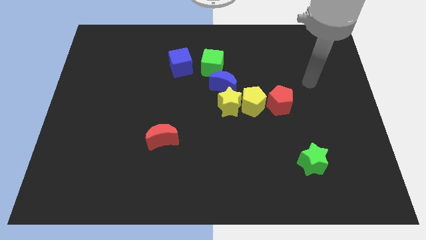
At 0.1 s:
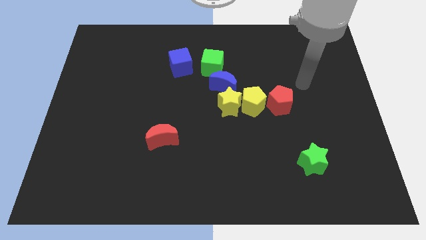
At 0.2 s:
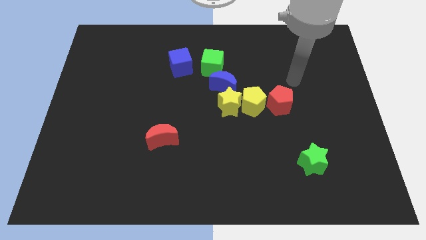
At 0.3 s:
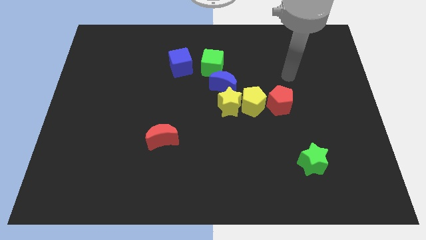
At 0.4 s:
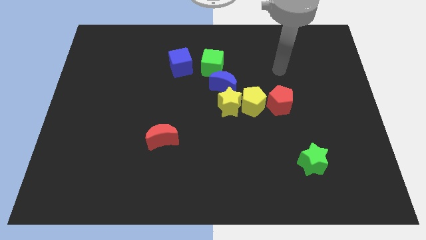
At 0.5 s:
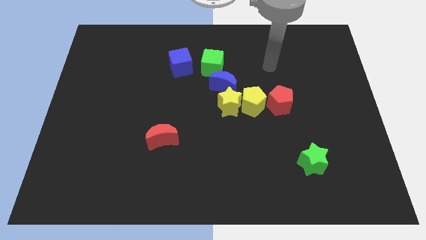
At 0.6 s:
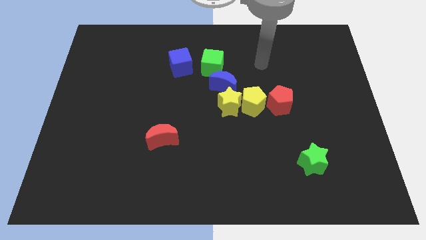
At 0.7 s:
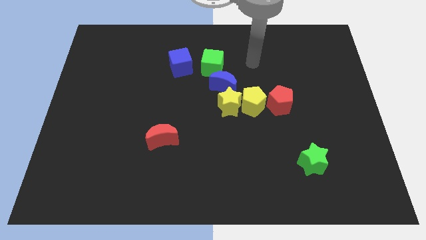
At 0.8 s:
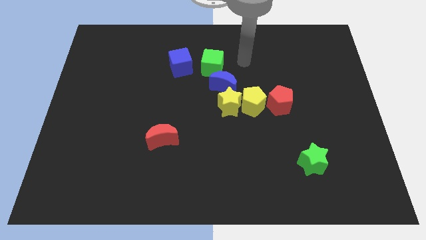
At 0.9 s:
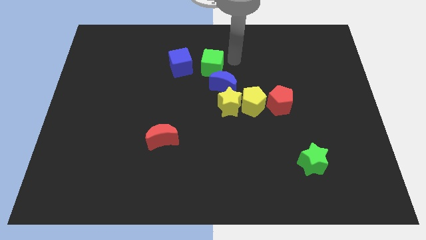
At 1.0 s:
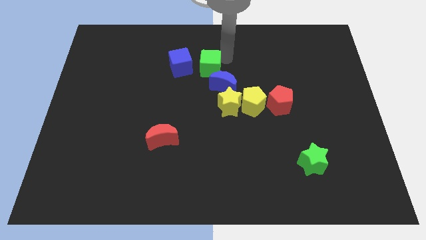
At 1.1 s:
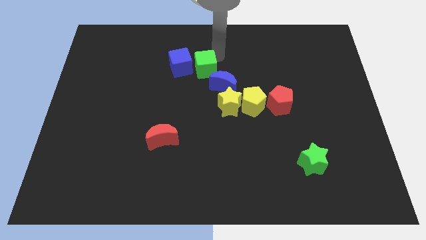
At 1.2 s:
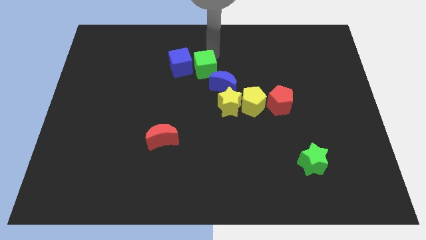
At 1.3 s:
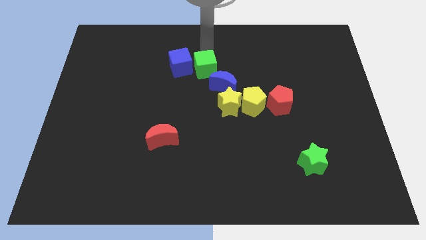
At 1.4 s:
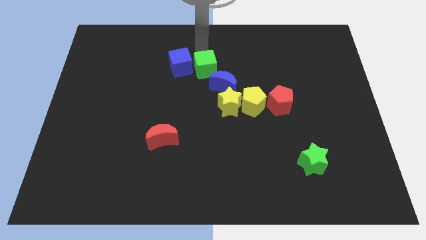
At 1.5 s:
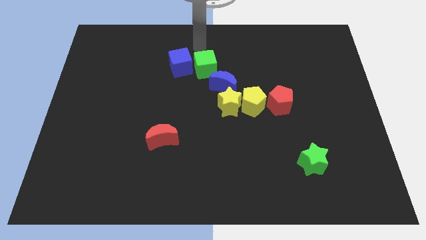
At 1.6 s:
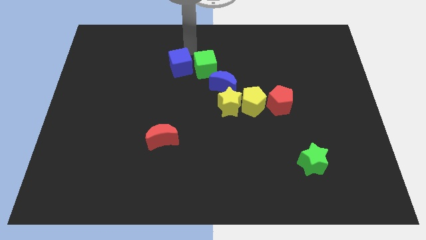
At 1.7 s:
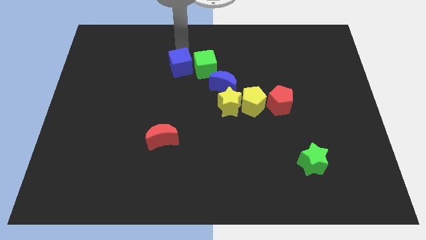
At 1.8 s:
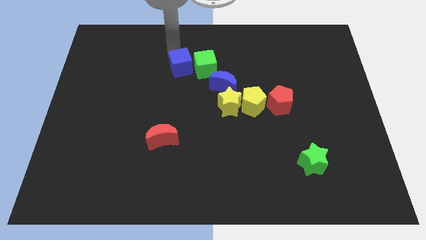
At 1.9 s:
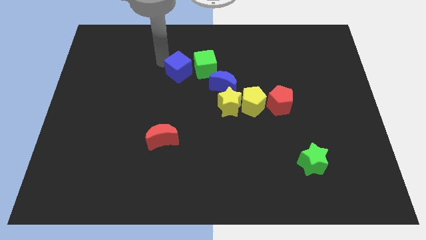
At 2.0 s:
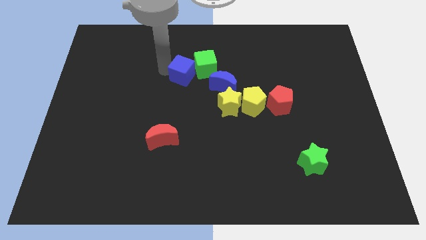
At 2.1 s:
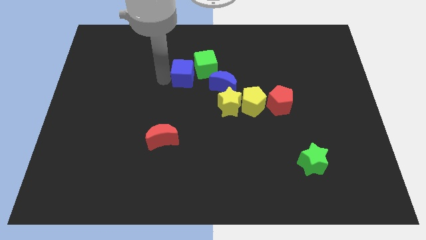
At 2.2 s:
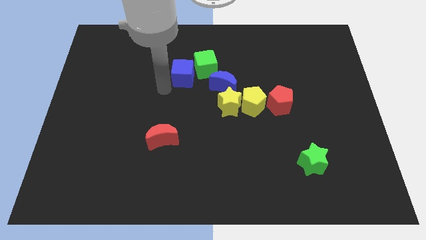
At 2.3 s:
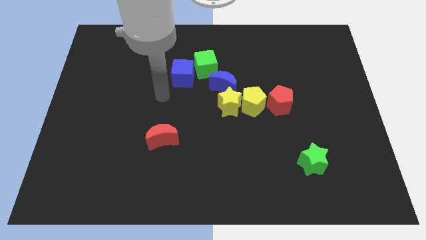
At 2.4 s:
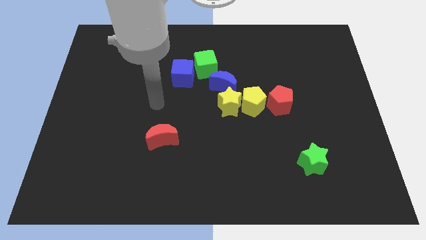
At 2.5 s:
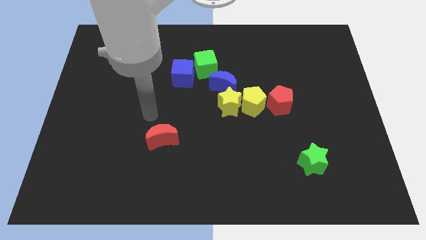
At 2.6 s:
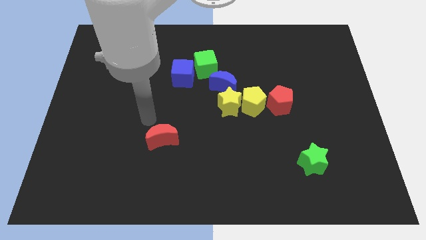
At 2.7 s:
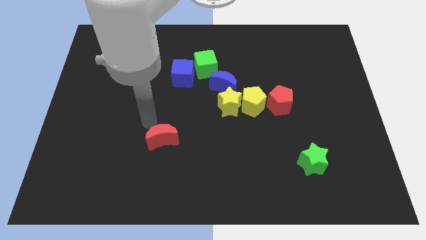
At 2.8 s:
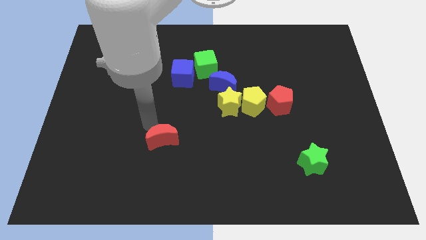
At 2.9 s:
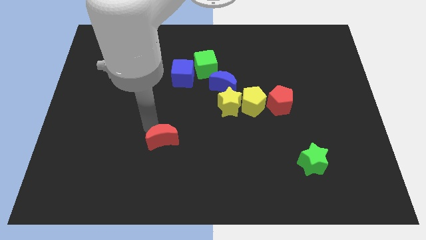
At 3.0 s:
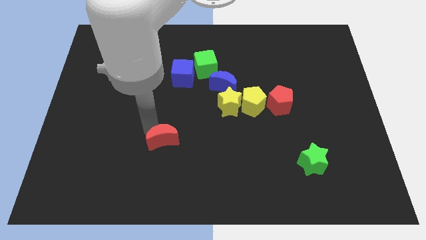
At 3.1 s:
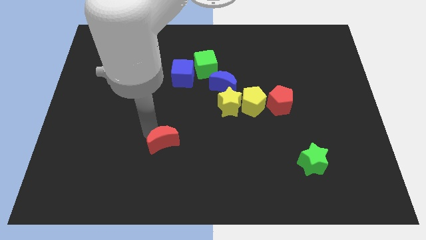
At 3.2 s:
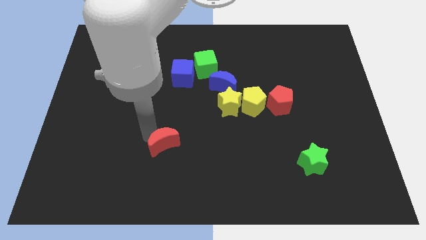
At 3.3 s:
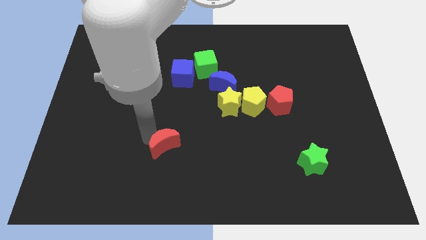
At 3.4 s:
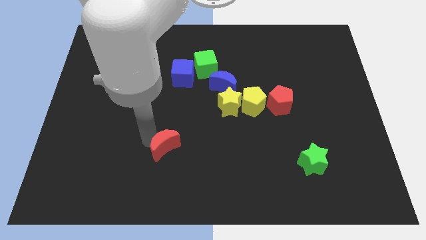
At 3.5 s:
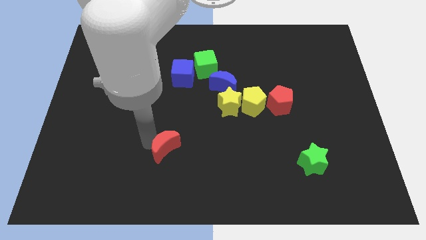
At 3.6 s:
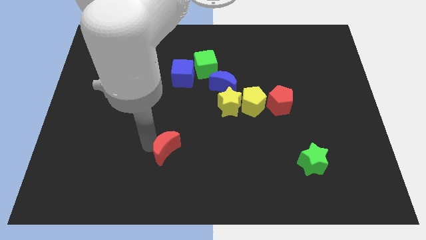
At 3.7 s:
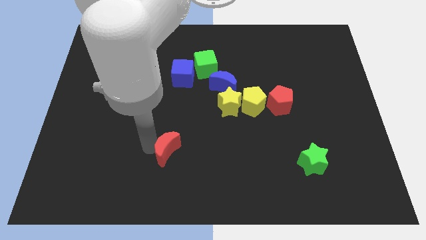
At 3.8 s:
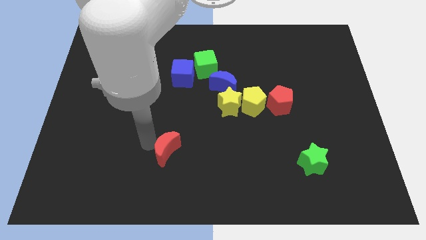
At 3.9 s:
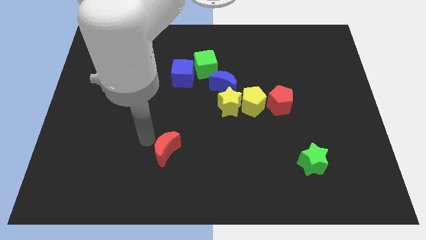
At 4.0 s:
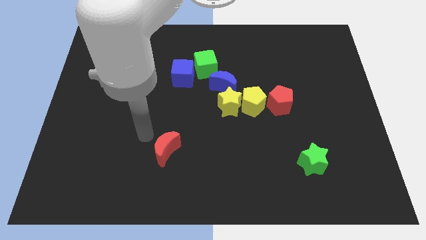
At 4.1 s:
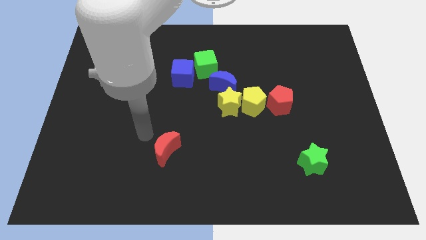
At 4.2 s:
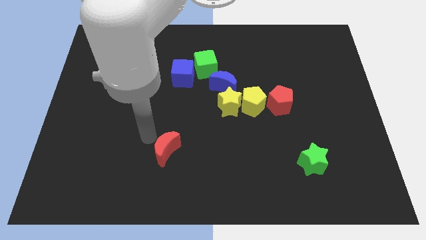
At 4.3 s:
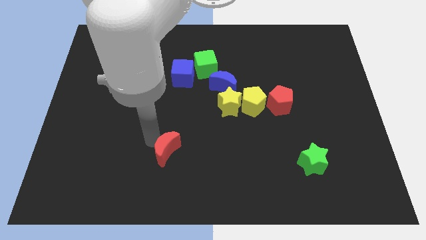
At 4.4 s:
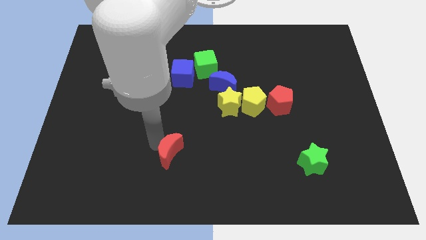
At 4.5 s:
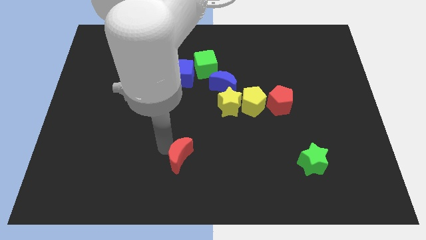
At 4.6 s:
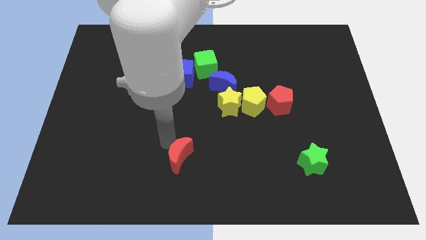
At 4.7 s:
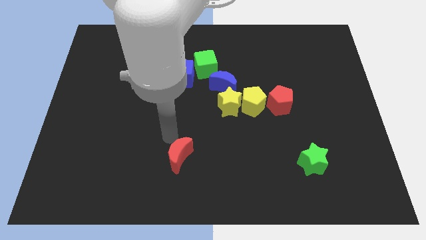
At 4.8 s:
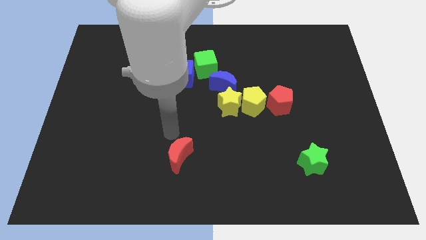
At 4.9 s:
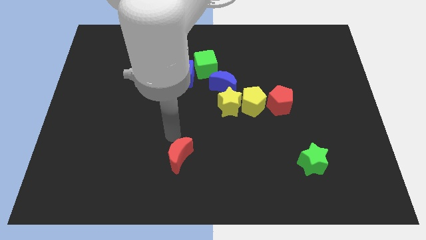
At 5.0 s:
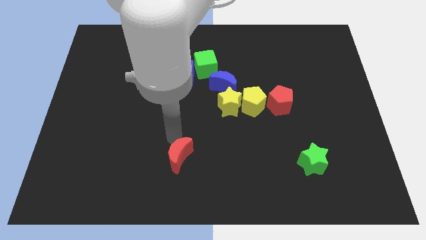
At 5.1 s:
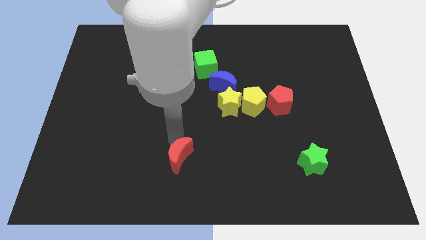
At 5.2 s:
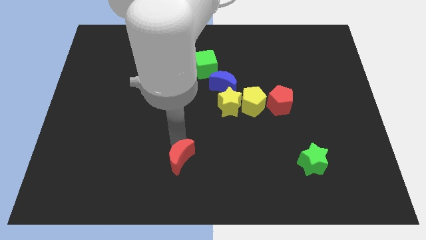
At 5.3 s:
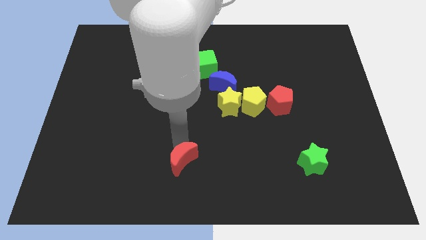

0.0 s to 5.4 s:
push the red moon to the bottom
